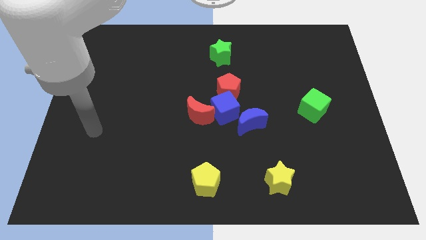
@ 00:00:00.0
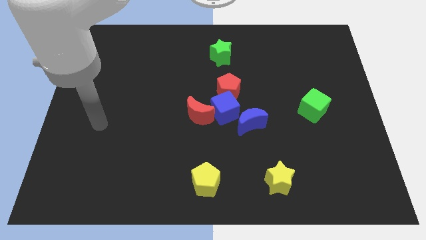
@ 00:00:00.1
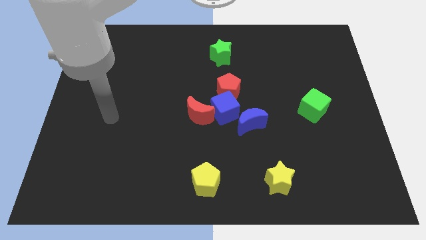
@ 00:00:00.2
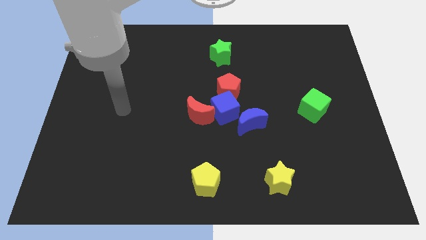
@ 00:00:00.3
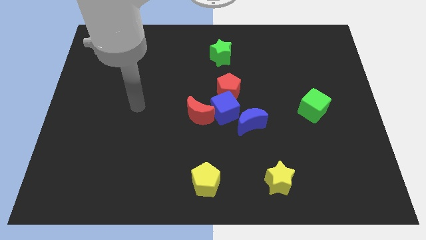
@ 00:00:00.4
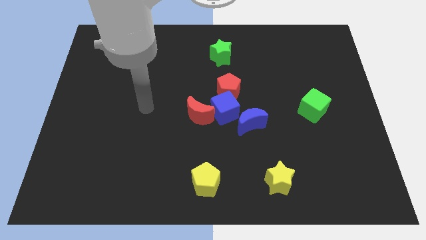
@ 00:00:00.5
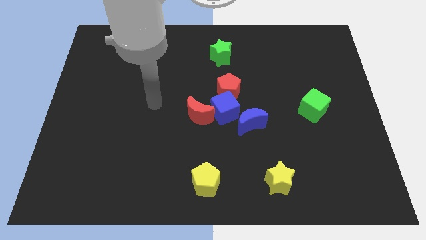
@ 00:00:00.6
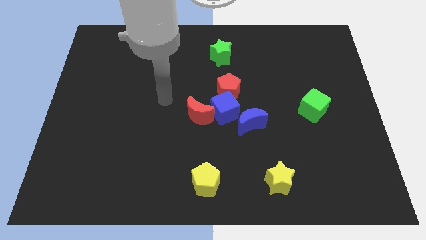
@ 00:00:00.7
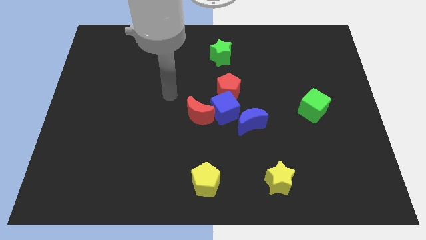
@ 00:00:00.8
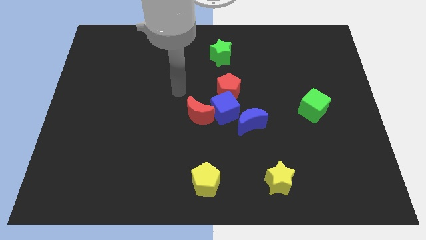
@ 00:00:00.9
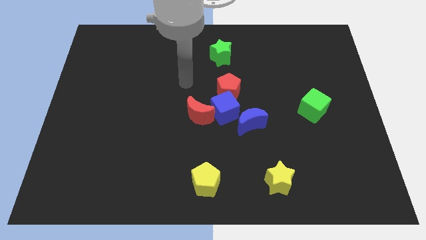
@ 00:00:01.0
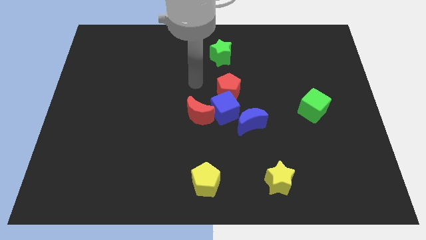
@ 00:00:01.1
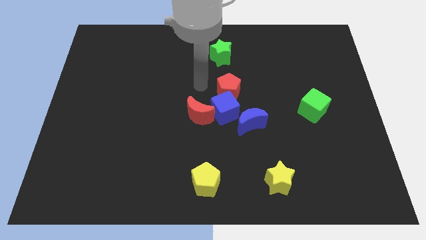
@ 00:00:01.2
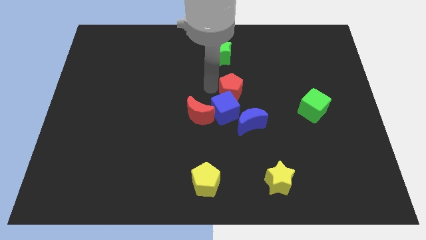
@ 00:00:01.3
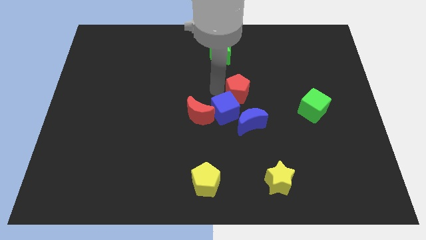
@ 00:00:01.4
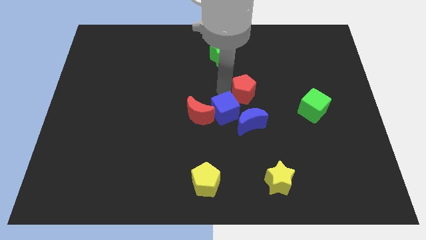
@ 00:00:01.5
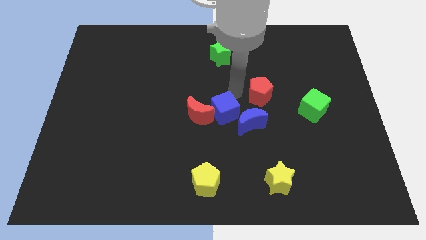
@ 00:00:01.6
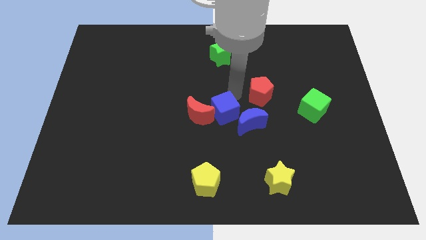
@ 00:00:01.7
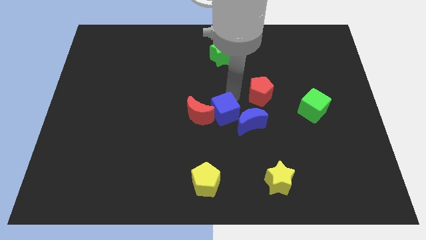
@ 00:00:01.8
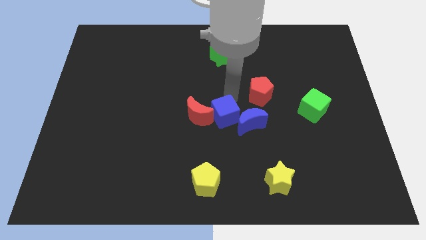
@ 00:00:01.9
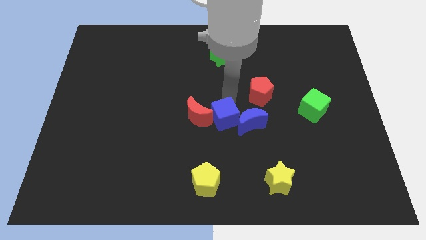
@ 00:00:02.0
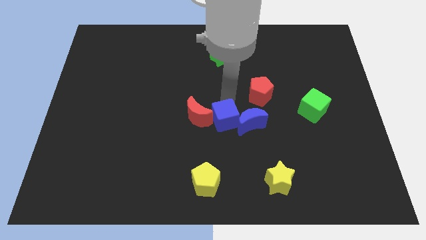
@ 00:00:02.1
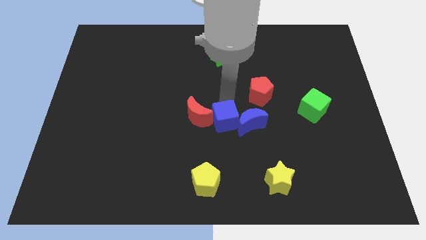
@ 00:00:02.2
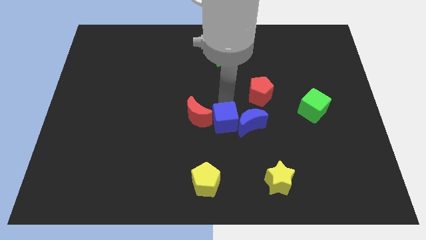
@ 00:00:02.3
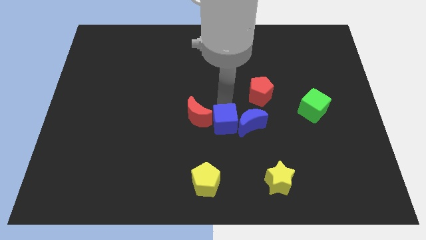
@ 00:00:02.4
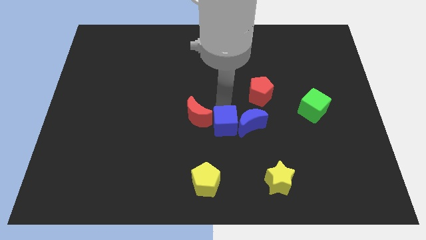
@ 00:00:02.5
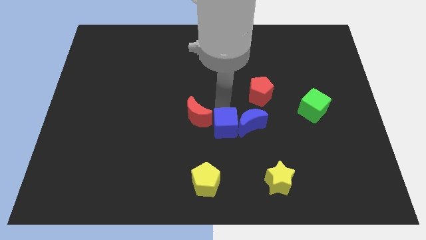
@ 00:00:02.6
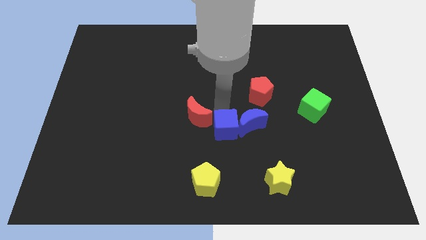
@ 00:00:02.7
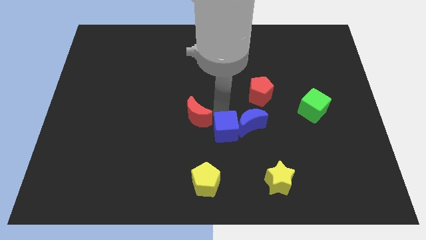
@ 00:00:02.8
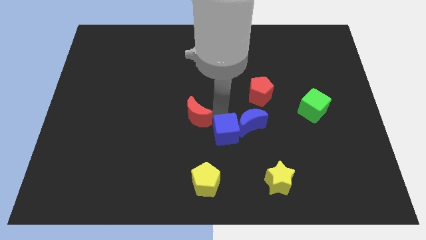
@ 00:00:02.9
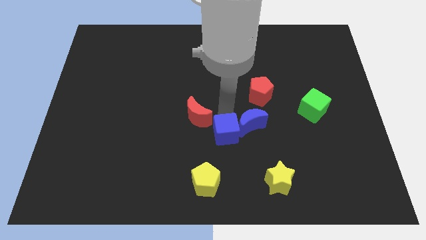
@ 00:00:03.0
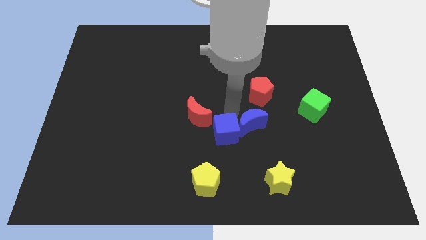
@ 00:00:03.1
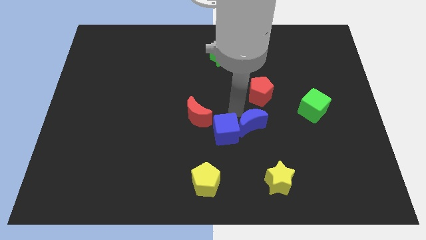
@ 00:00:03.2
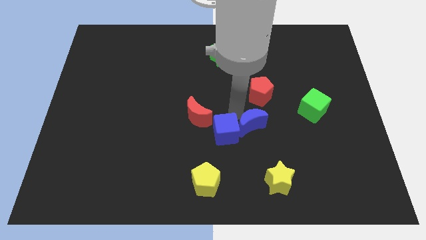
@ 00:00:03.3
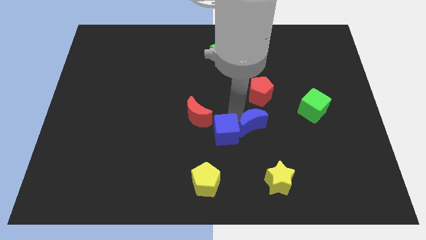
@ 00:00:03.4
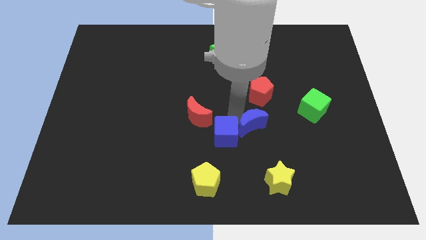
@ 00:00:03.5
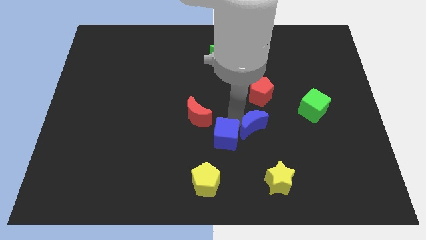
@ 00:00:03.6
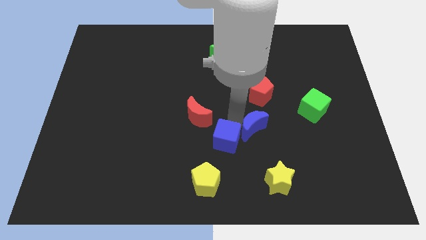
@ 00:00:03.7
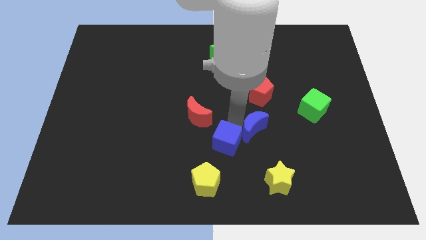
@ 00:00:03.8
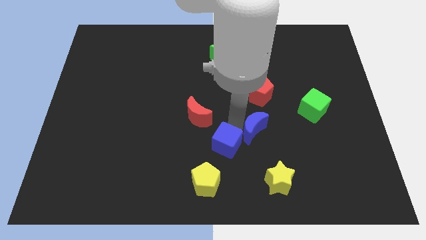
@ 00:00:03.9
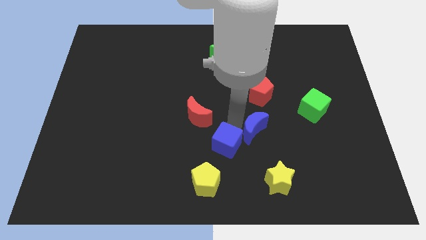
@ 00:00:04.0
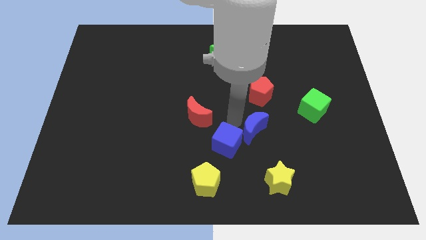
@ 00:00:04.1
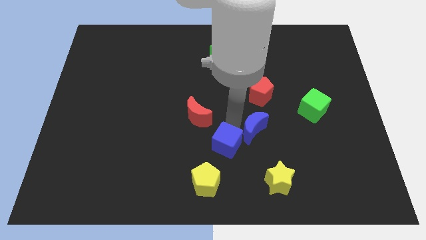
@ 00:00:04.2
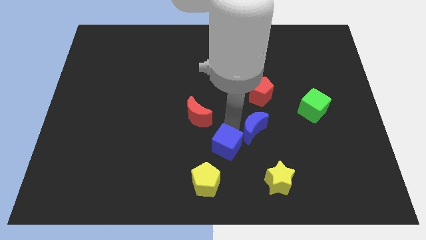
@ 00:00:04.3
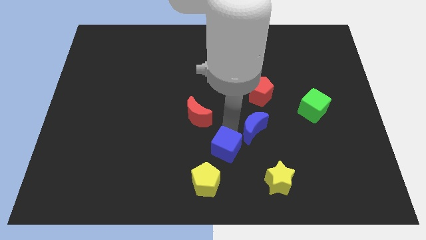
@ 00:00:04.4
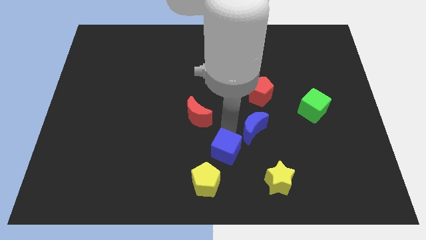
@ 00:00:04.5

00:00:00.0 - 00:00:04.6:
pull the blue cube apart from the group

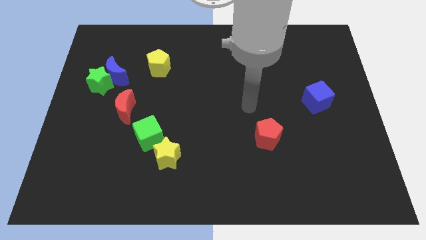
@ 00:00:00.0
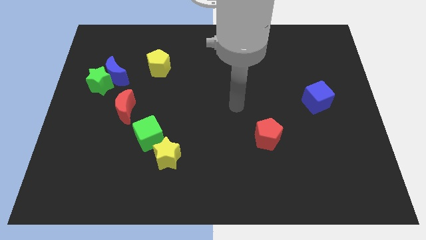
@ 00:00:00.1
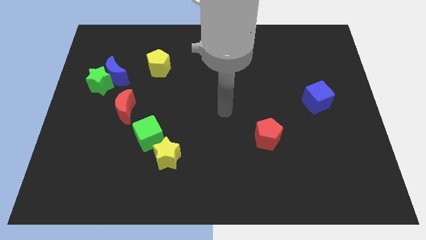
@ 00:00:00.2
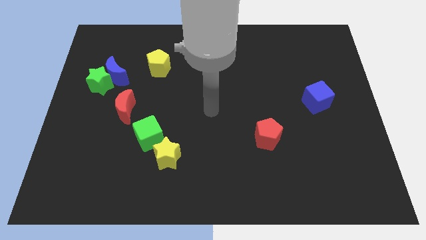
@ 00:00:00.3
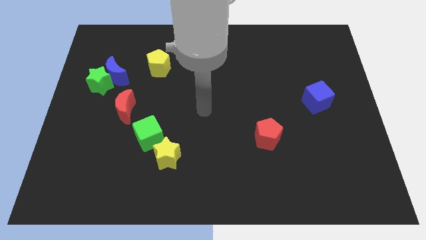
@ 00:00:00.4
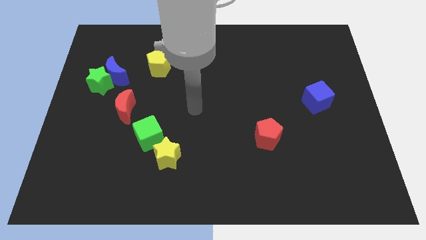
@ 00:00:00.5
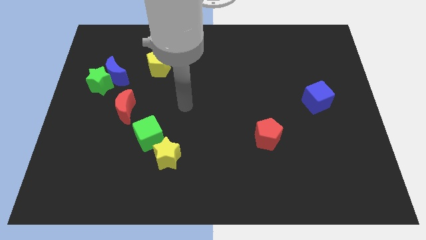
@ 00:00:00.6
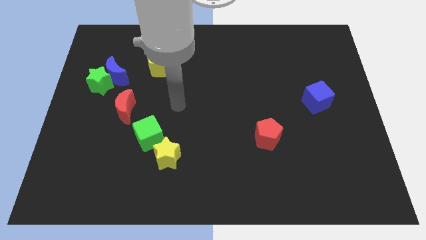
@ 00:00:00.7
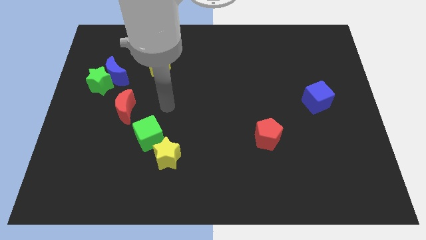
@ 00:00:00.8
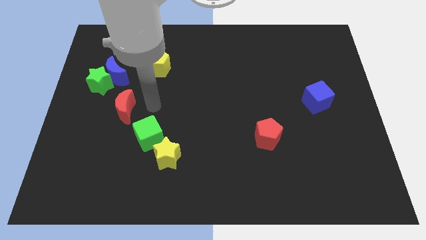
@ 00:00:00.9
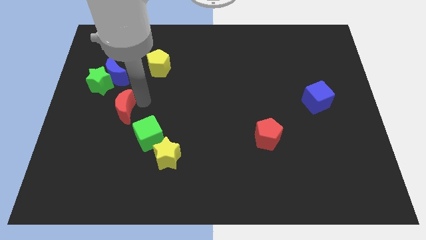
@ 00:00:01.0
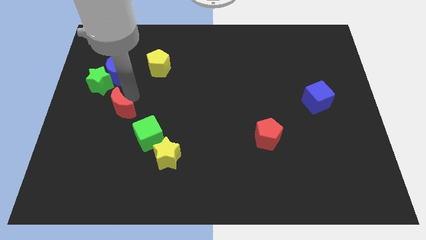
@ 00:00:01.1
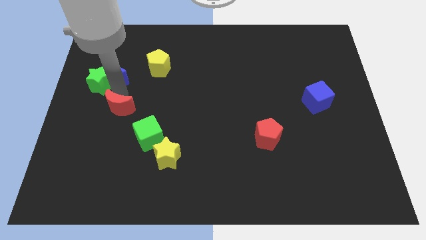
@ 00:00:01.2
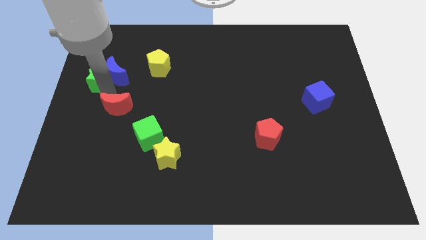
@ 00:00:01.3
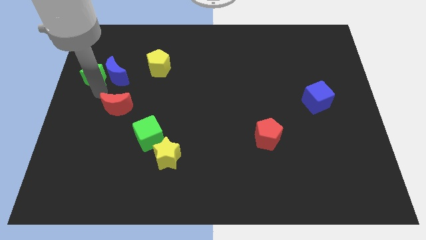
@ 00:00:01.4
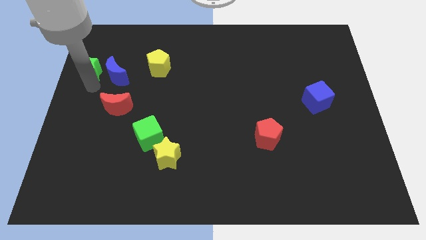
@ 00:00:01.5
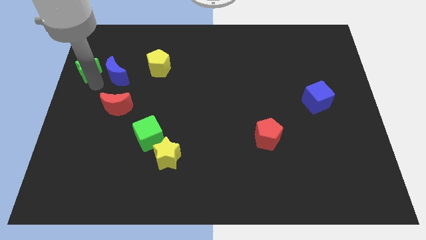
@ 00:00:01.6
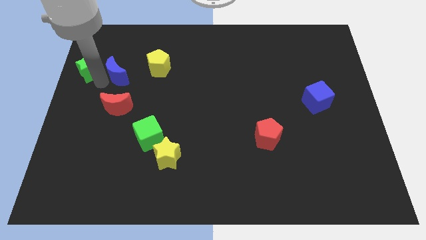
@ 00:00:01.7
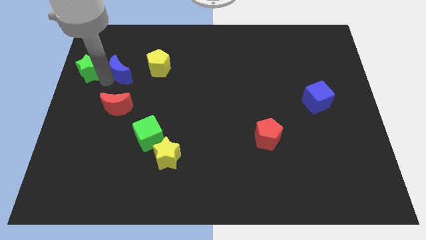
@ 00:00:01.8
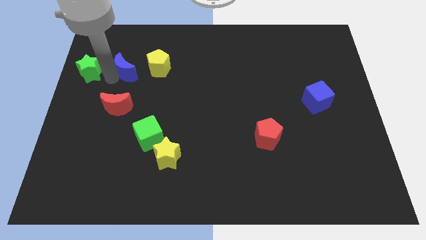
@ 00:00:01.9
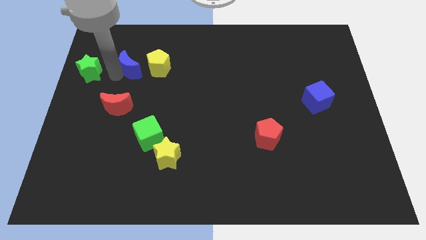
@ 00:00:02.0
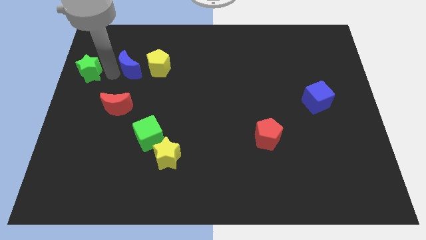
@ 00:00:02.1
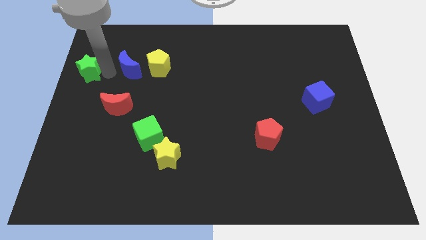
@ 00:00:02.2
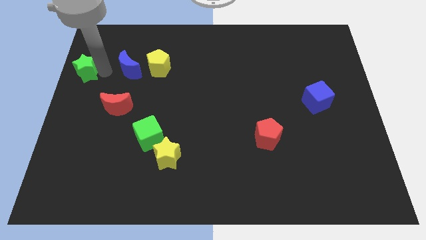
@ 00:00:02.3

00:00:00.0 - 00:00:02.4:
move the blue moon away from the green star

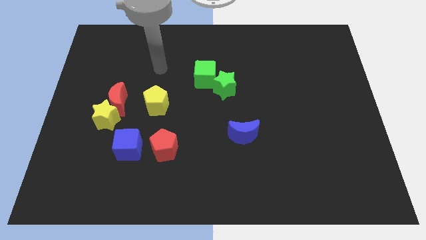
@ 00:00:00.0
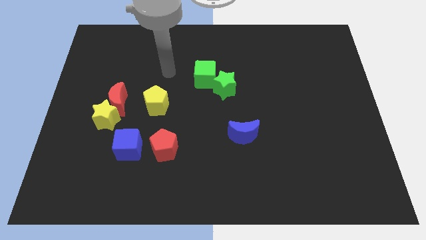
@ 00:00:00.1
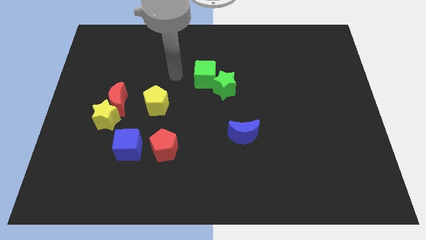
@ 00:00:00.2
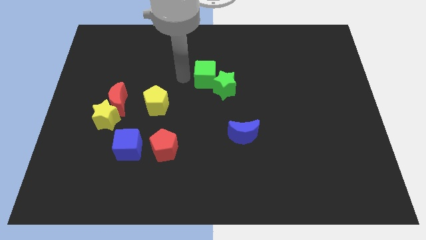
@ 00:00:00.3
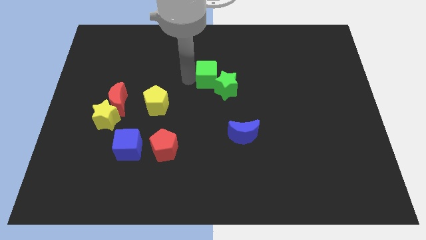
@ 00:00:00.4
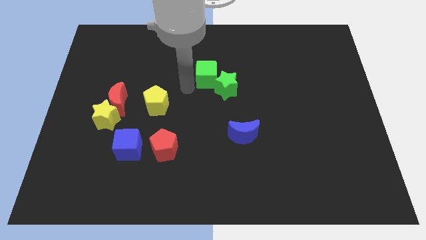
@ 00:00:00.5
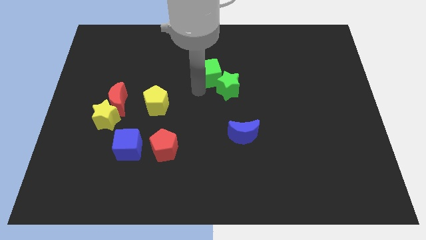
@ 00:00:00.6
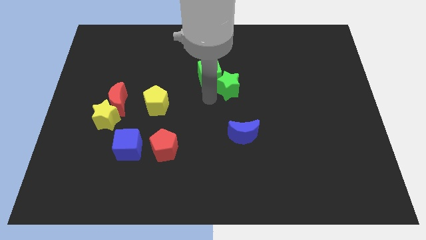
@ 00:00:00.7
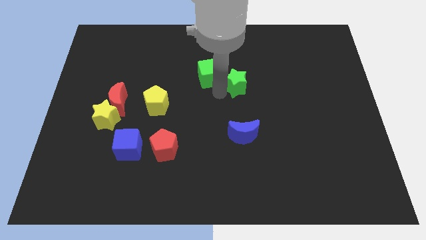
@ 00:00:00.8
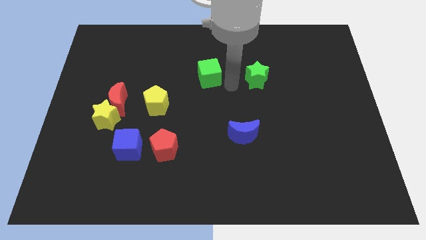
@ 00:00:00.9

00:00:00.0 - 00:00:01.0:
pull the green cube apart from the green star

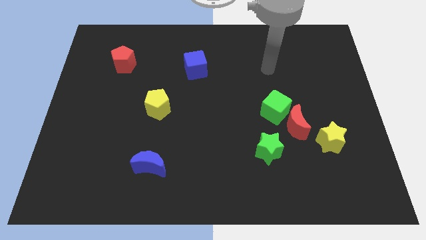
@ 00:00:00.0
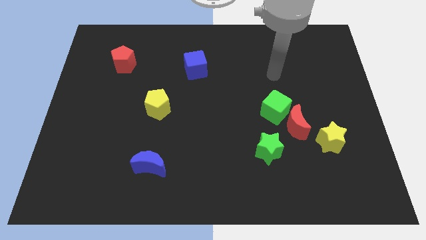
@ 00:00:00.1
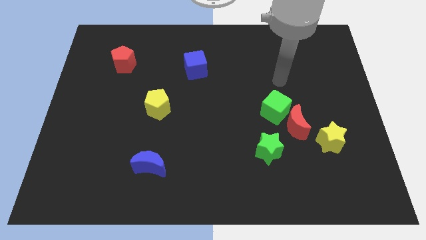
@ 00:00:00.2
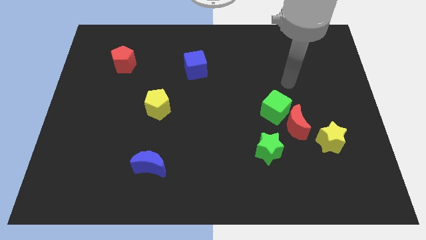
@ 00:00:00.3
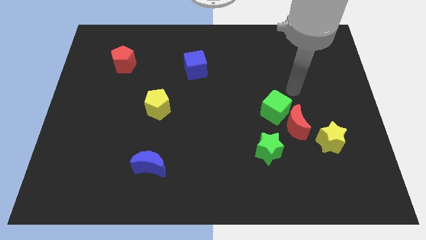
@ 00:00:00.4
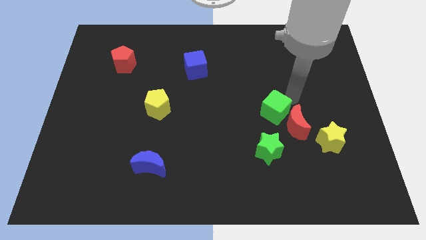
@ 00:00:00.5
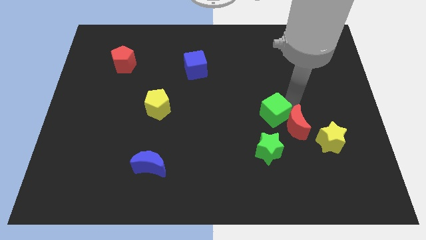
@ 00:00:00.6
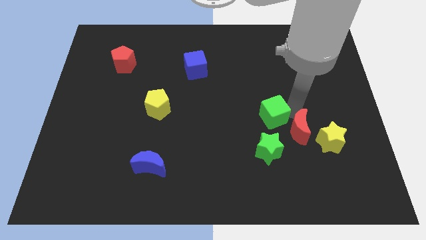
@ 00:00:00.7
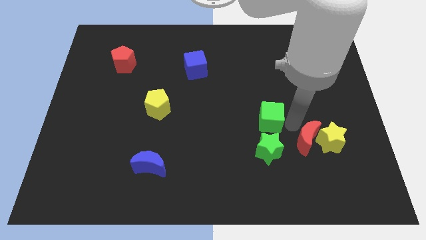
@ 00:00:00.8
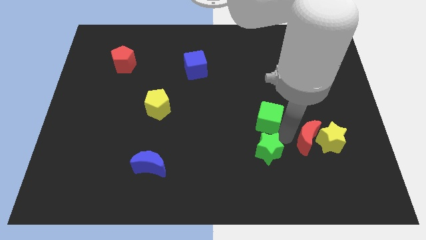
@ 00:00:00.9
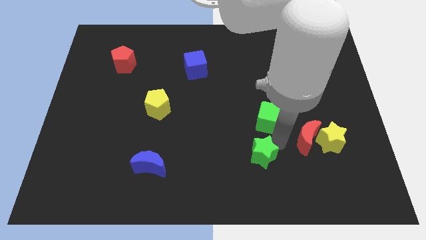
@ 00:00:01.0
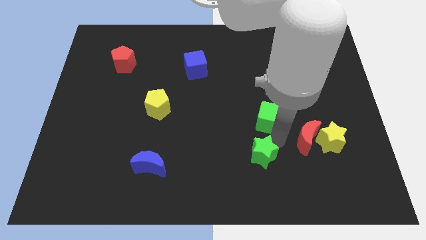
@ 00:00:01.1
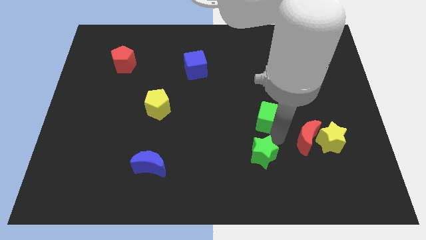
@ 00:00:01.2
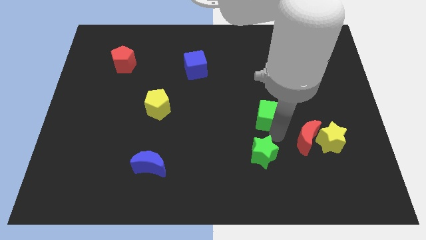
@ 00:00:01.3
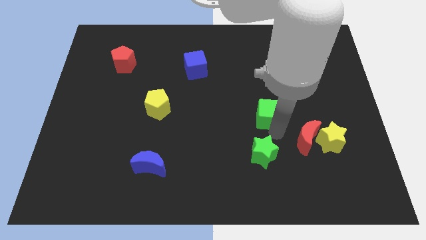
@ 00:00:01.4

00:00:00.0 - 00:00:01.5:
separate the green cube from the red moon
